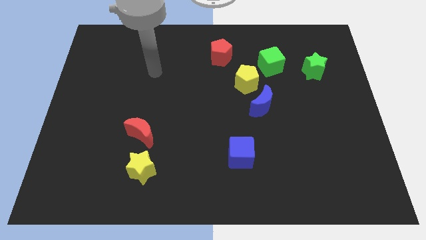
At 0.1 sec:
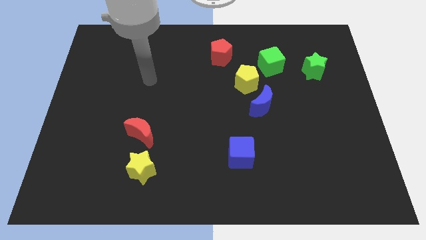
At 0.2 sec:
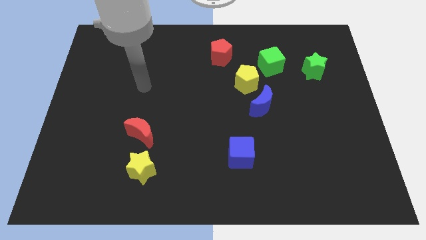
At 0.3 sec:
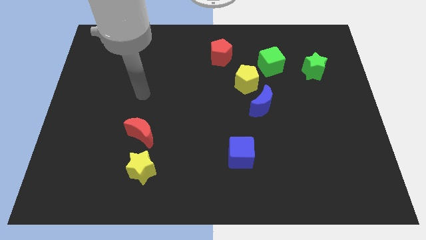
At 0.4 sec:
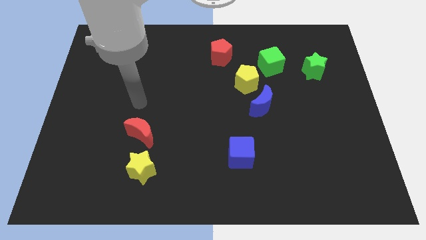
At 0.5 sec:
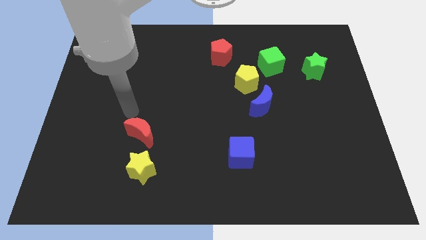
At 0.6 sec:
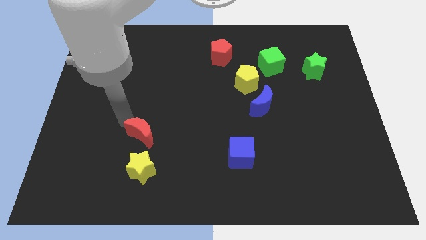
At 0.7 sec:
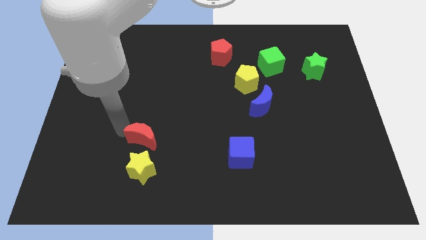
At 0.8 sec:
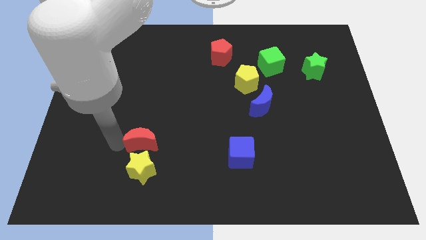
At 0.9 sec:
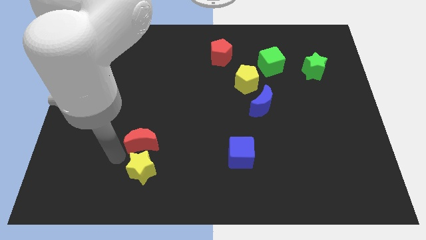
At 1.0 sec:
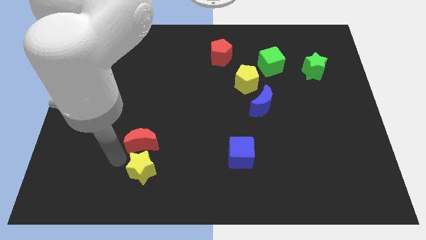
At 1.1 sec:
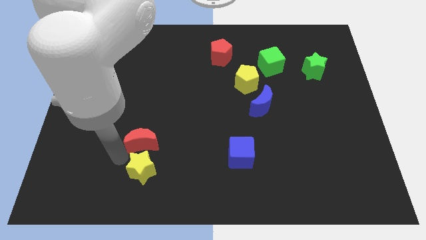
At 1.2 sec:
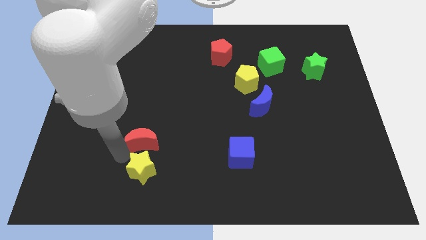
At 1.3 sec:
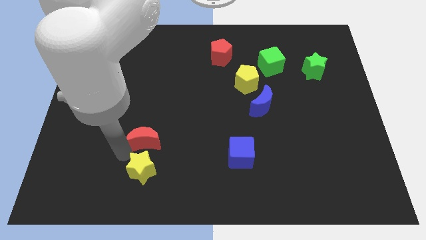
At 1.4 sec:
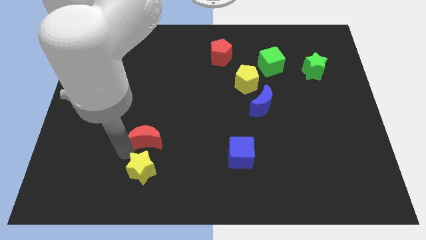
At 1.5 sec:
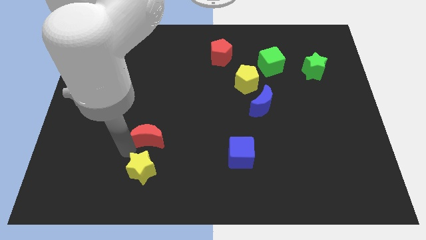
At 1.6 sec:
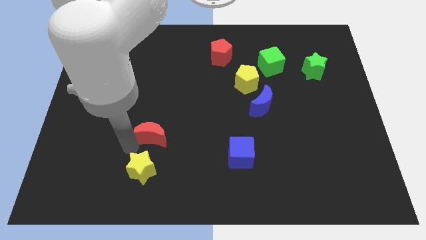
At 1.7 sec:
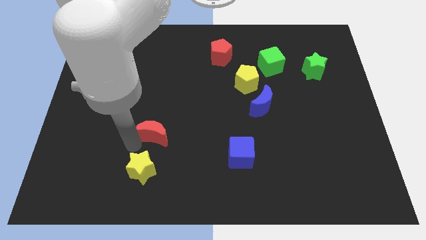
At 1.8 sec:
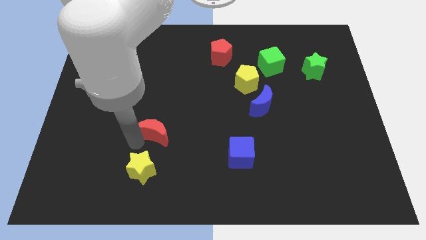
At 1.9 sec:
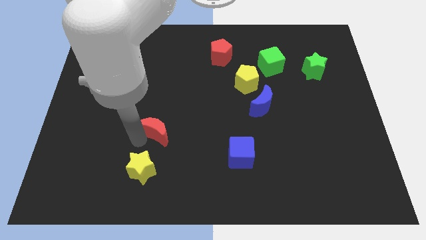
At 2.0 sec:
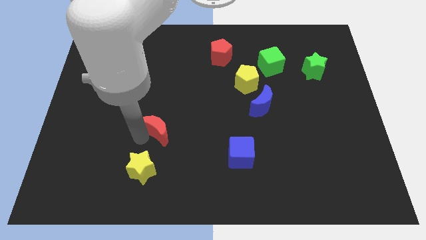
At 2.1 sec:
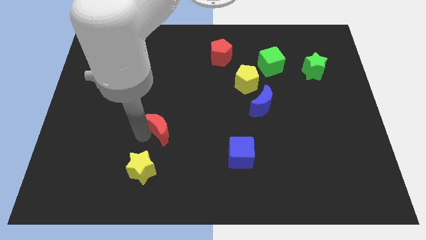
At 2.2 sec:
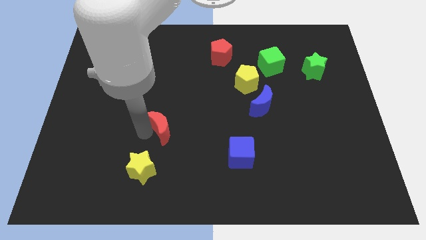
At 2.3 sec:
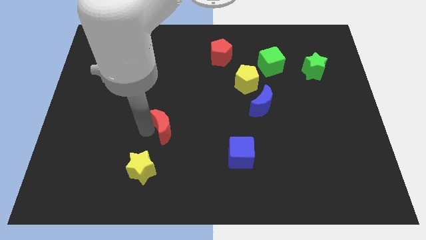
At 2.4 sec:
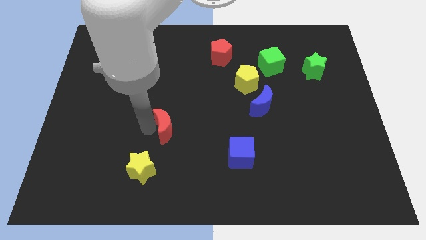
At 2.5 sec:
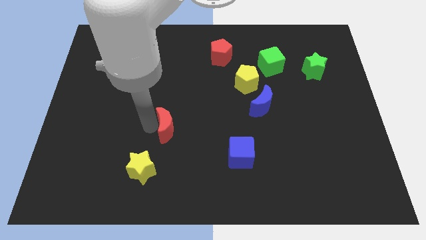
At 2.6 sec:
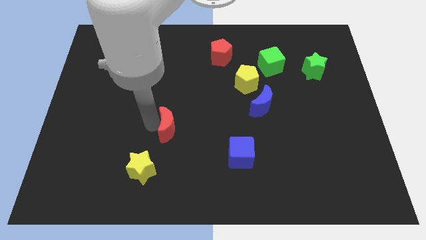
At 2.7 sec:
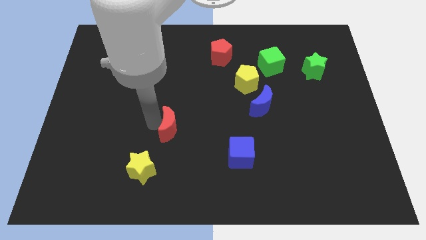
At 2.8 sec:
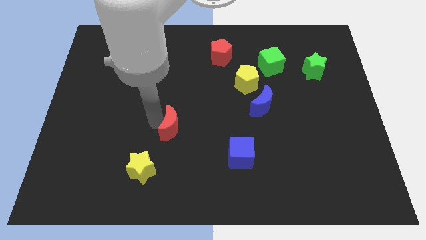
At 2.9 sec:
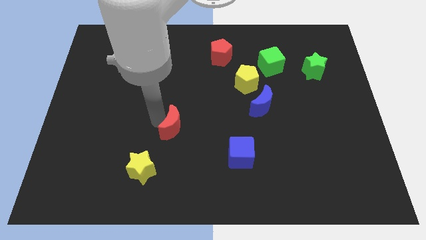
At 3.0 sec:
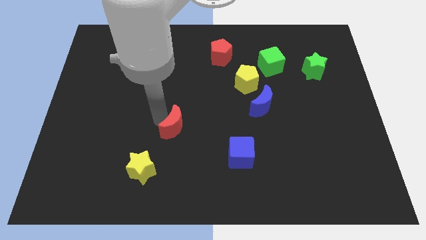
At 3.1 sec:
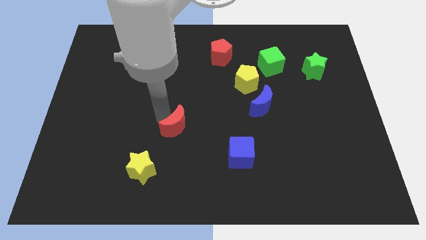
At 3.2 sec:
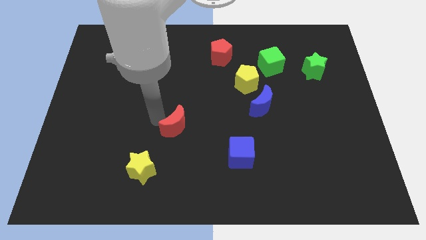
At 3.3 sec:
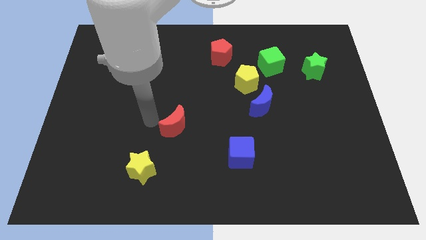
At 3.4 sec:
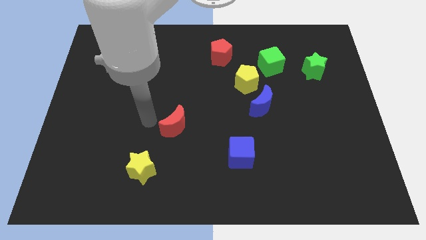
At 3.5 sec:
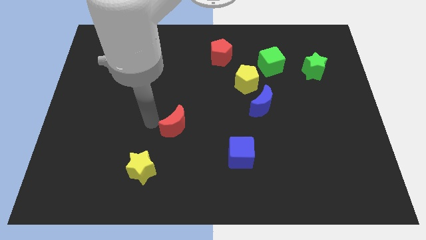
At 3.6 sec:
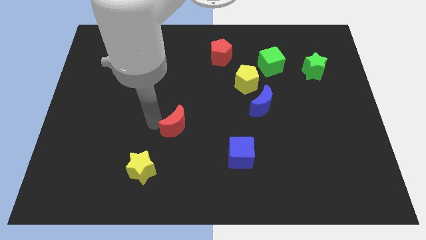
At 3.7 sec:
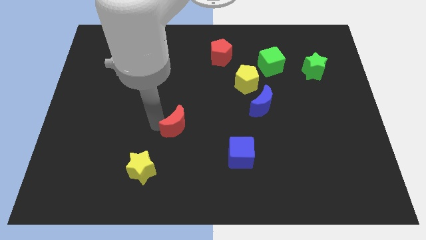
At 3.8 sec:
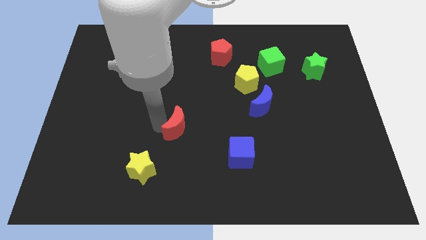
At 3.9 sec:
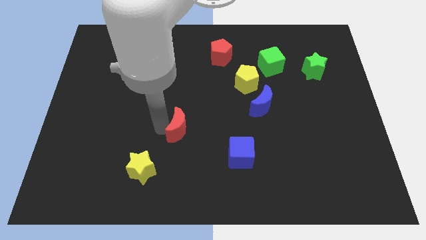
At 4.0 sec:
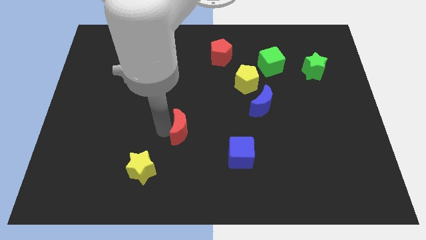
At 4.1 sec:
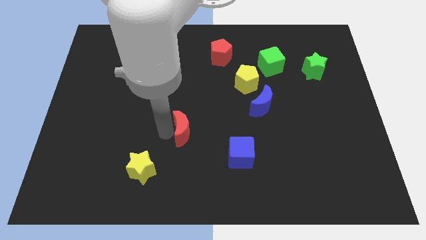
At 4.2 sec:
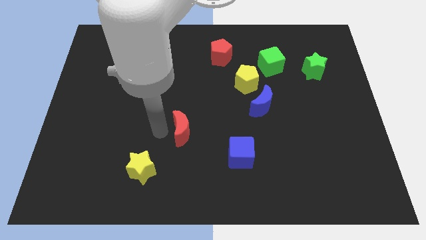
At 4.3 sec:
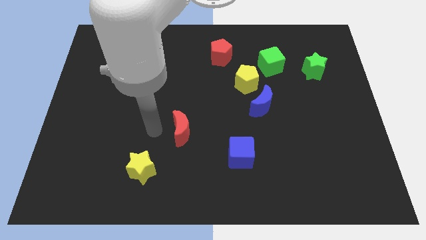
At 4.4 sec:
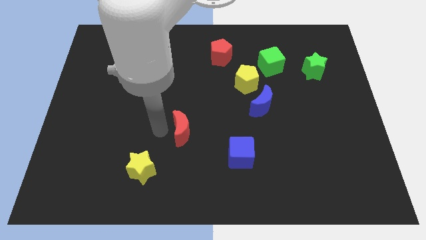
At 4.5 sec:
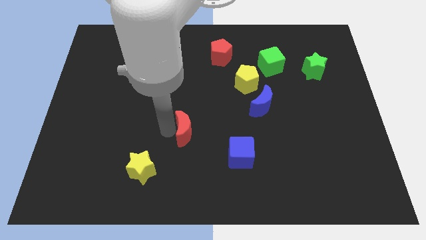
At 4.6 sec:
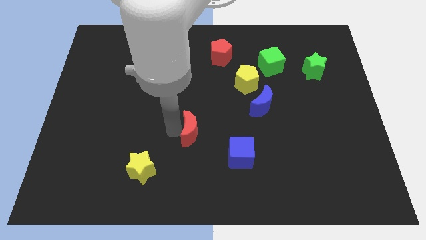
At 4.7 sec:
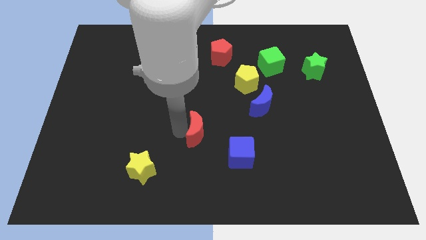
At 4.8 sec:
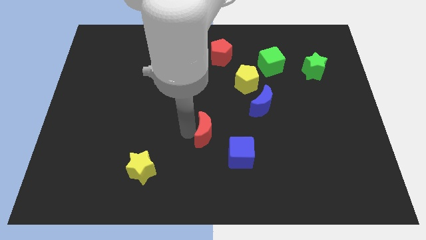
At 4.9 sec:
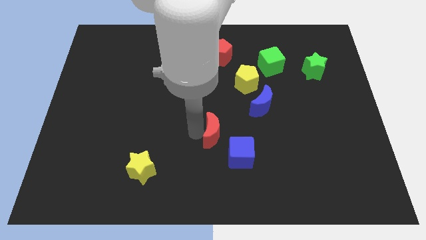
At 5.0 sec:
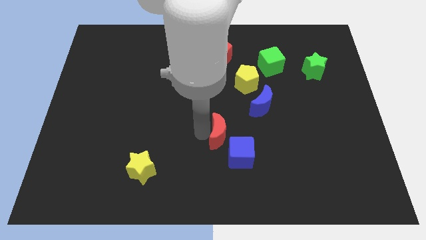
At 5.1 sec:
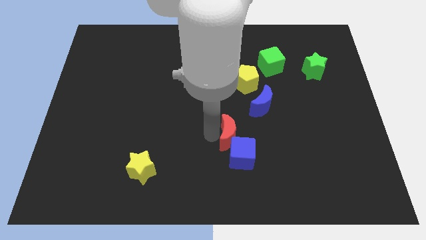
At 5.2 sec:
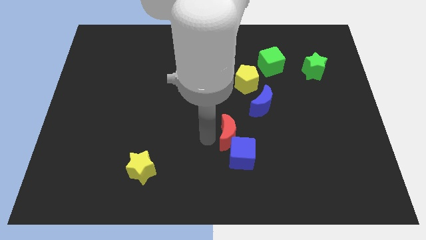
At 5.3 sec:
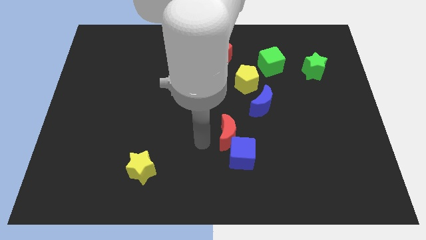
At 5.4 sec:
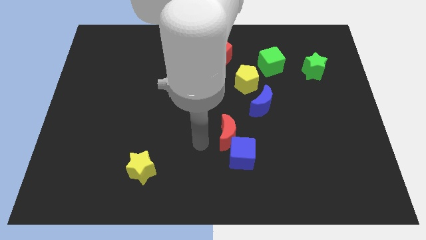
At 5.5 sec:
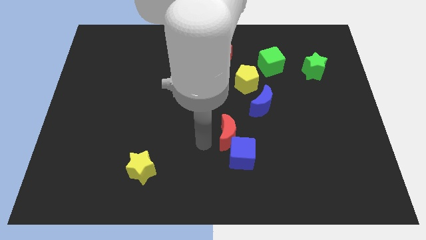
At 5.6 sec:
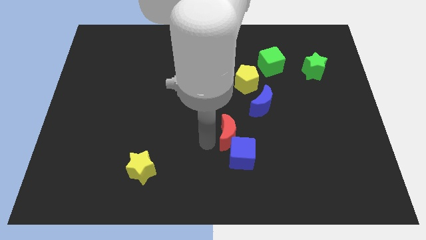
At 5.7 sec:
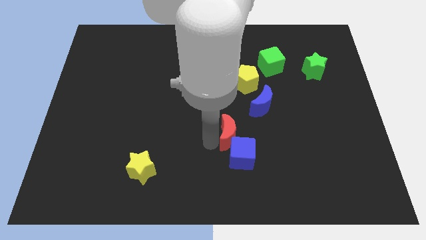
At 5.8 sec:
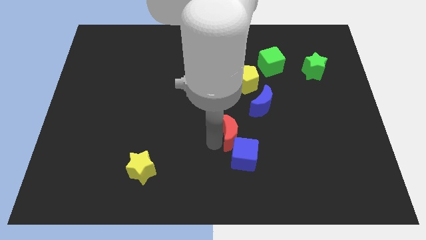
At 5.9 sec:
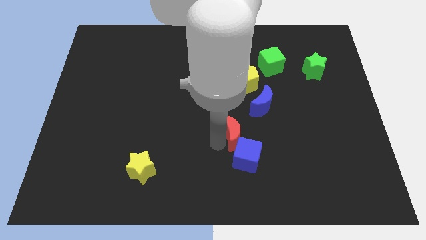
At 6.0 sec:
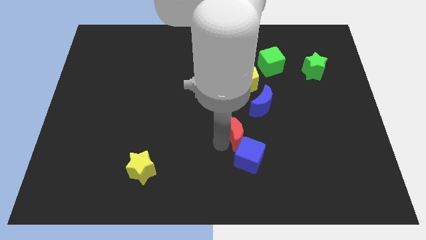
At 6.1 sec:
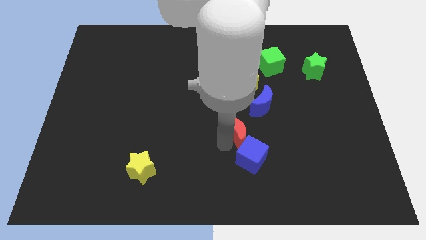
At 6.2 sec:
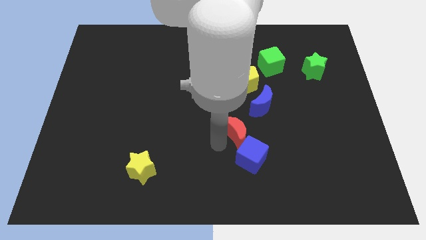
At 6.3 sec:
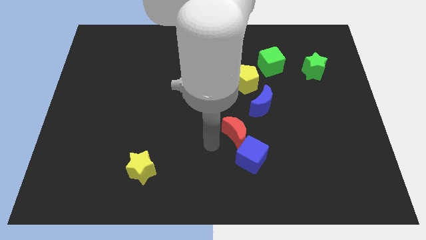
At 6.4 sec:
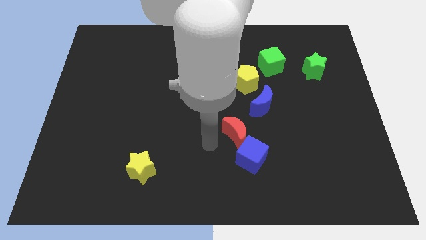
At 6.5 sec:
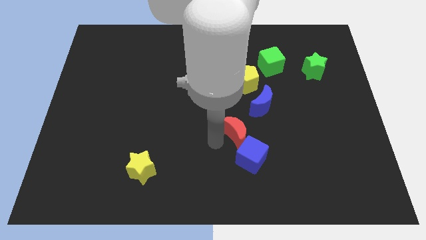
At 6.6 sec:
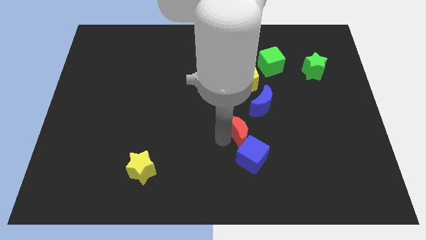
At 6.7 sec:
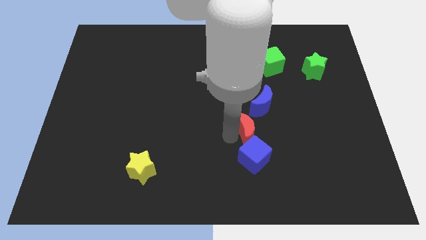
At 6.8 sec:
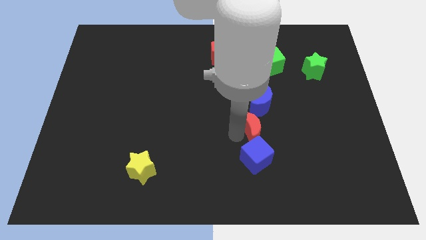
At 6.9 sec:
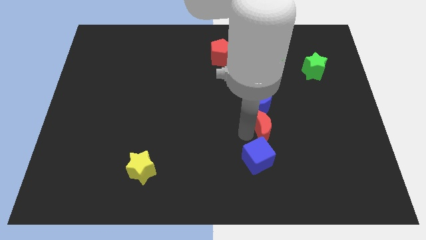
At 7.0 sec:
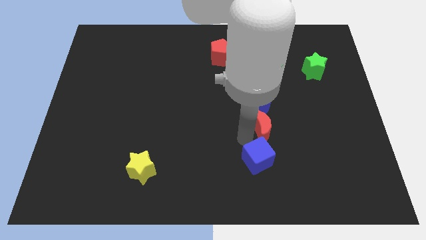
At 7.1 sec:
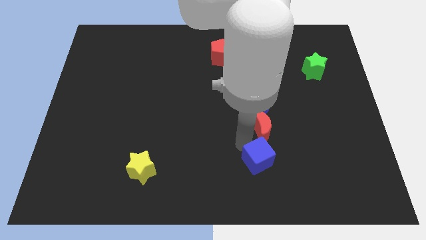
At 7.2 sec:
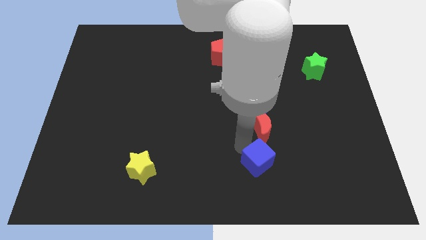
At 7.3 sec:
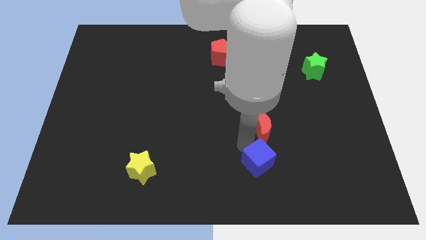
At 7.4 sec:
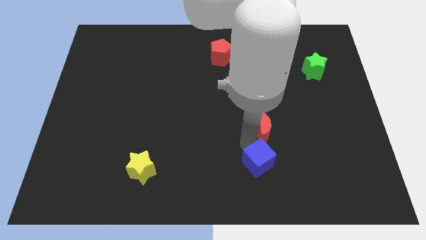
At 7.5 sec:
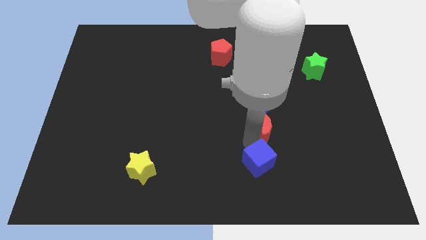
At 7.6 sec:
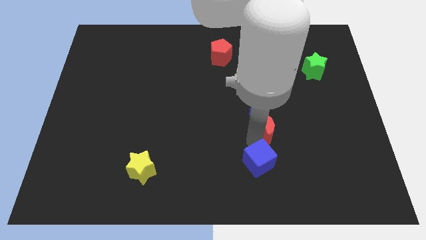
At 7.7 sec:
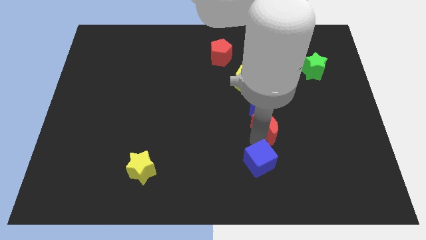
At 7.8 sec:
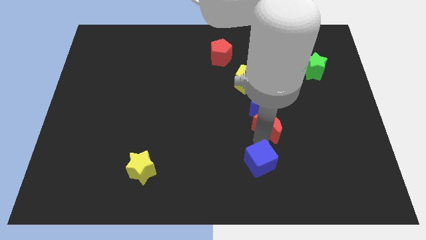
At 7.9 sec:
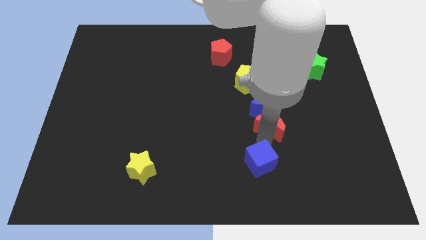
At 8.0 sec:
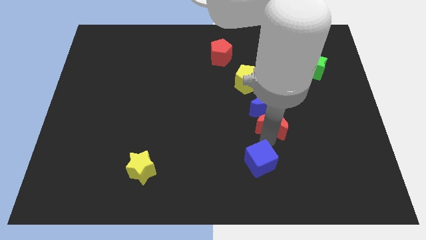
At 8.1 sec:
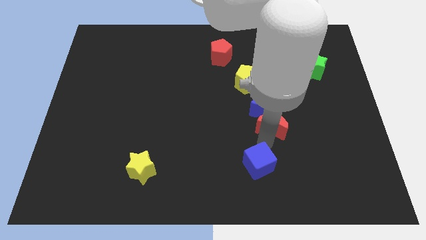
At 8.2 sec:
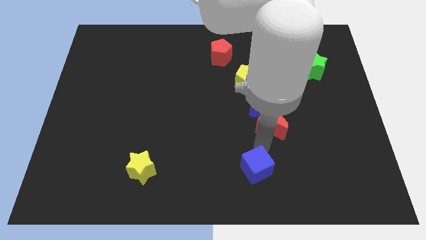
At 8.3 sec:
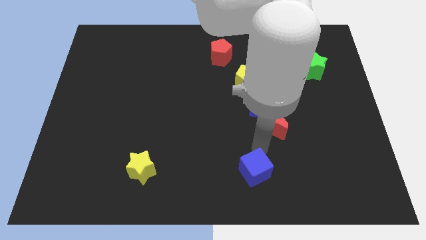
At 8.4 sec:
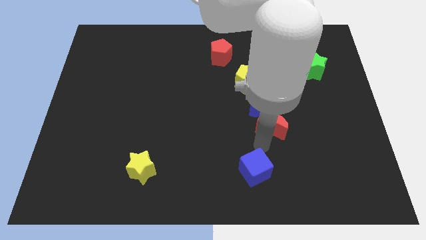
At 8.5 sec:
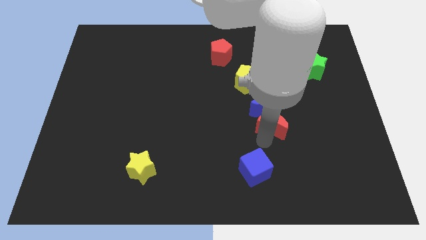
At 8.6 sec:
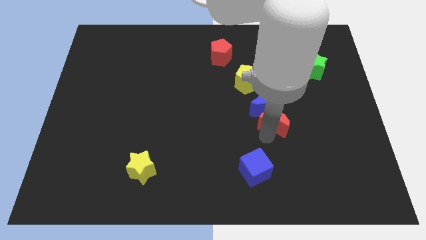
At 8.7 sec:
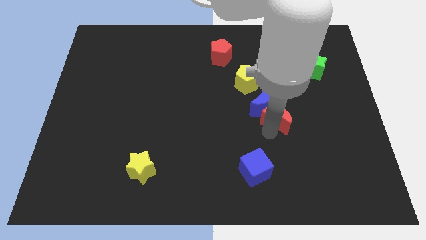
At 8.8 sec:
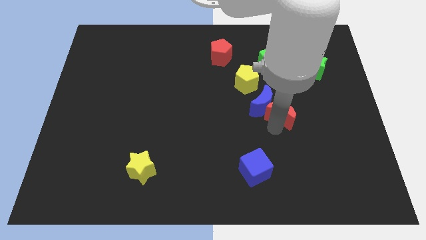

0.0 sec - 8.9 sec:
move the red moon diagonally down and to the right of the yellow pentagon
